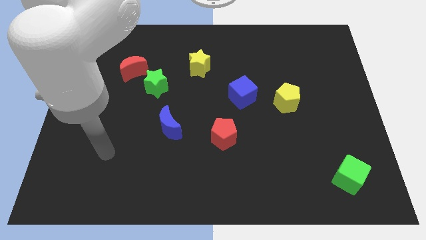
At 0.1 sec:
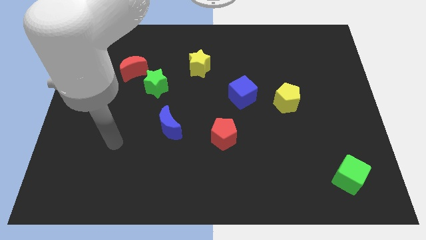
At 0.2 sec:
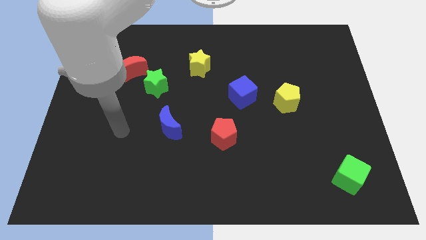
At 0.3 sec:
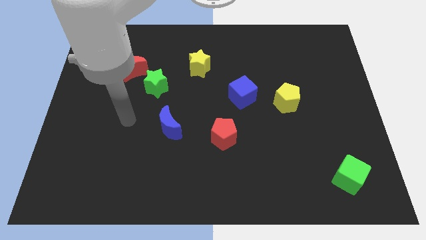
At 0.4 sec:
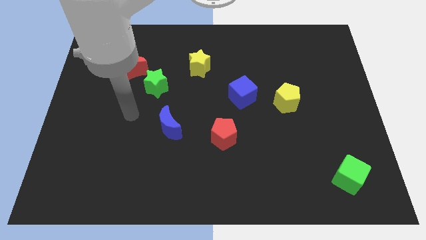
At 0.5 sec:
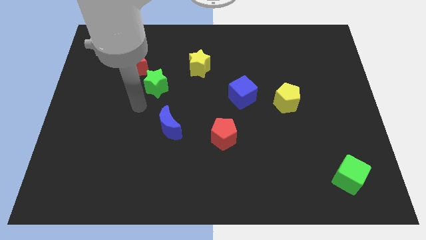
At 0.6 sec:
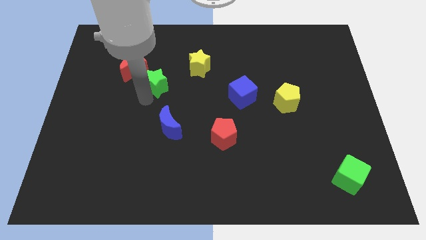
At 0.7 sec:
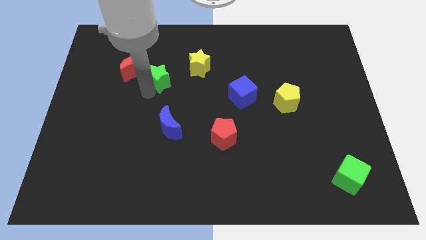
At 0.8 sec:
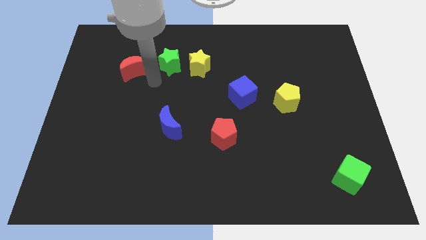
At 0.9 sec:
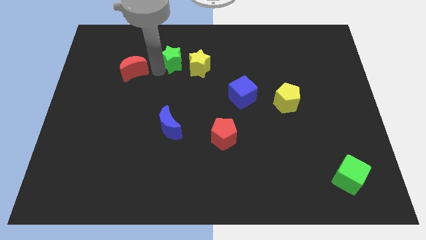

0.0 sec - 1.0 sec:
separate the red moon from the green star

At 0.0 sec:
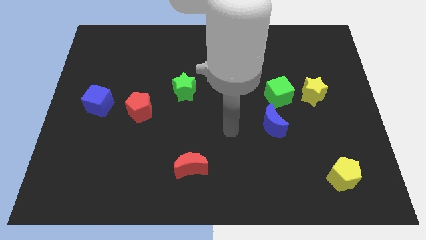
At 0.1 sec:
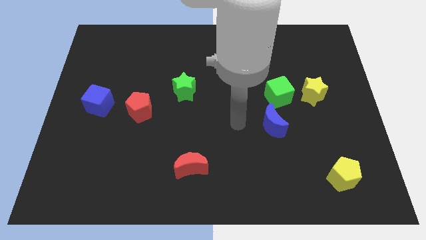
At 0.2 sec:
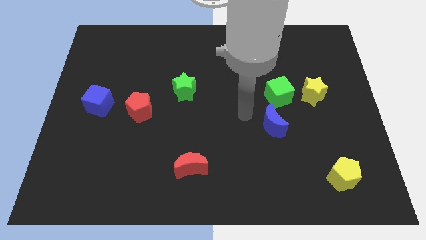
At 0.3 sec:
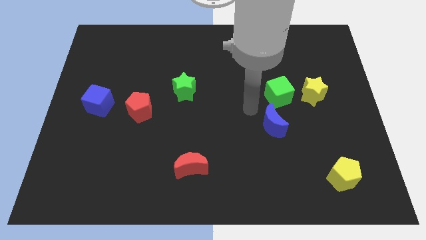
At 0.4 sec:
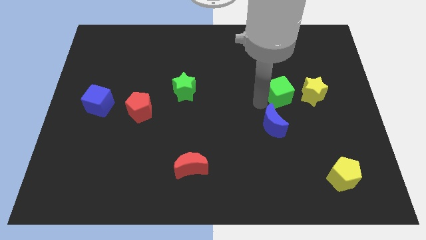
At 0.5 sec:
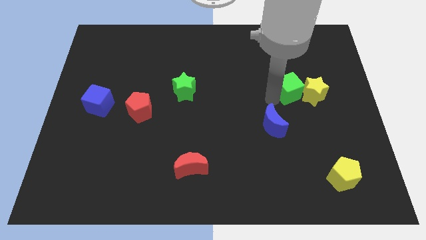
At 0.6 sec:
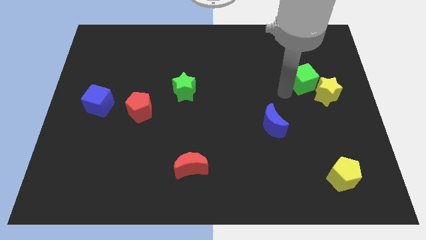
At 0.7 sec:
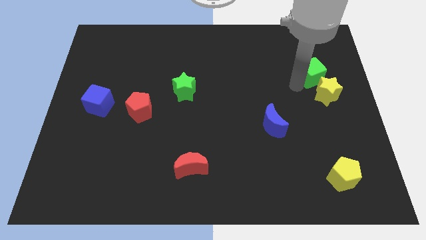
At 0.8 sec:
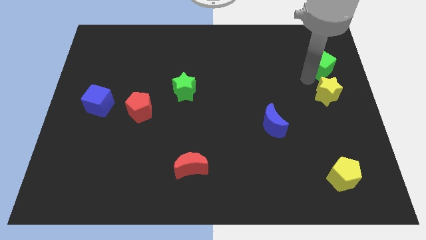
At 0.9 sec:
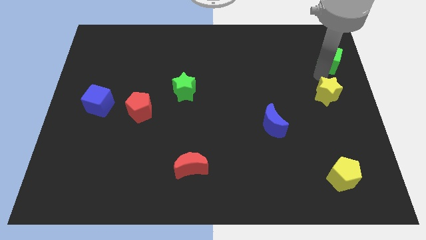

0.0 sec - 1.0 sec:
pull the yellow star apart from the green cube

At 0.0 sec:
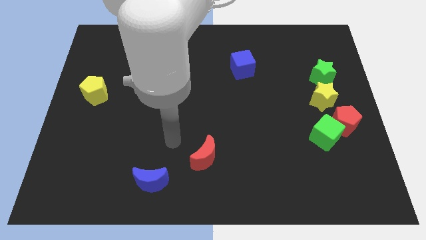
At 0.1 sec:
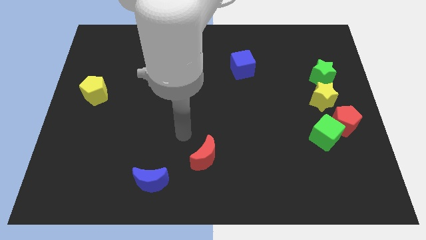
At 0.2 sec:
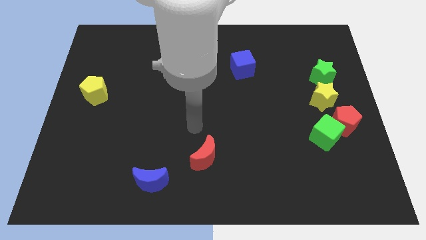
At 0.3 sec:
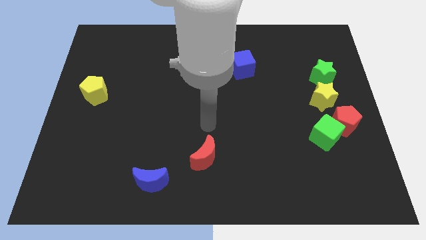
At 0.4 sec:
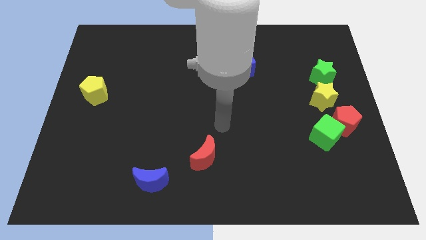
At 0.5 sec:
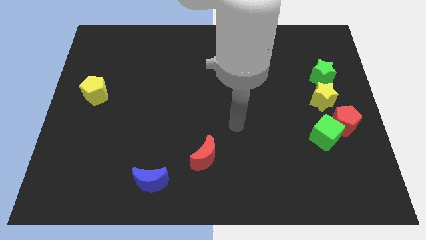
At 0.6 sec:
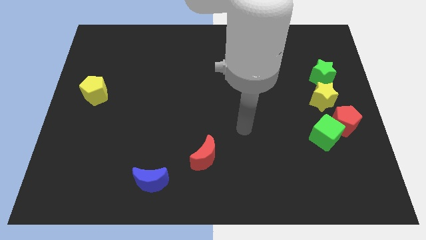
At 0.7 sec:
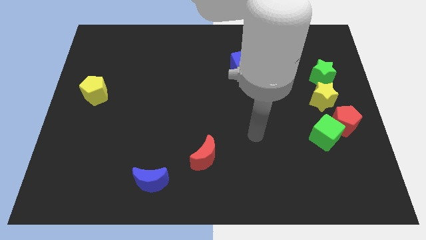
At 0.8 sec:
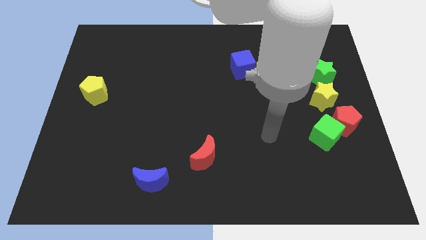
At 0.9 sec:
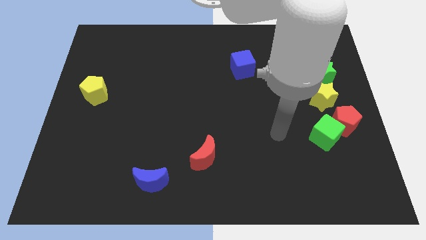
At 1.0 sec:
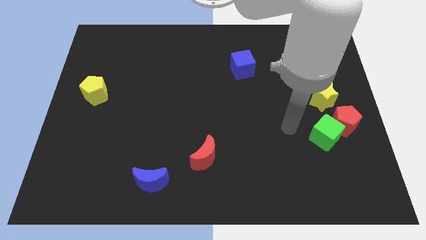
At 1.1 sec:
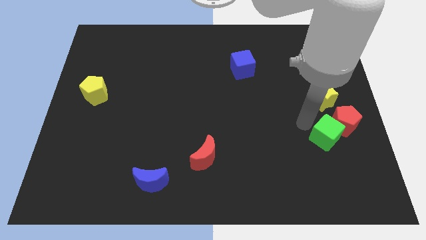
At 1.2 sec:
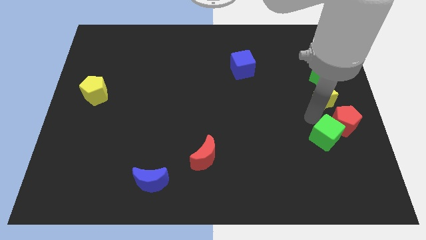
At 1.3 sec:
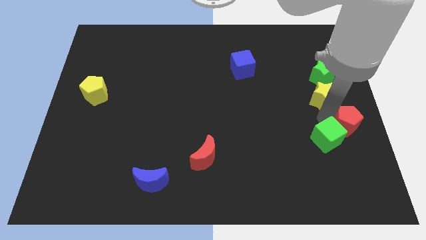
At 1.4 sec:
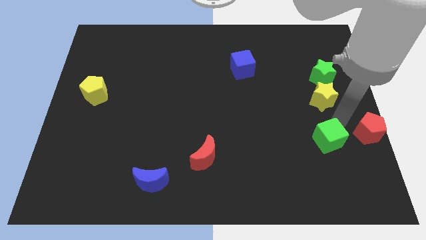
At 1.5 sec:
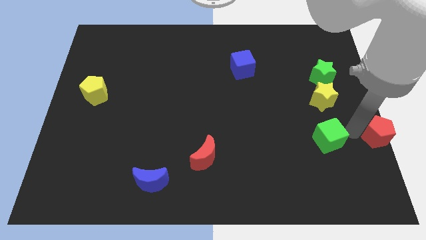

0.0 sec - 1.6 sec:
separate the green cube from the red pentagon

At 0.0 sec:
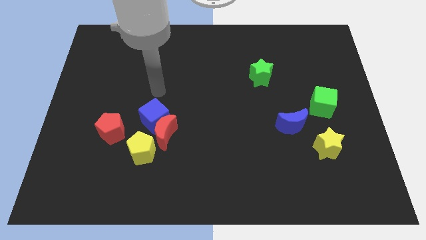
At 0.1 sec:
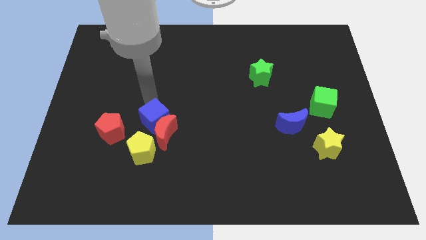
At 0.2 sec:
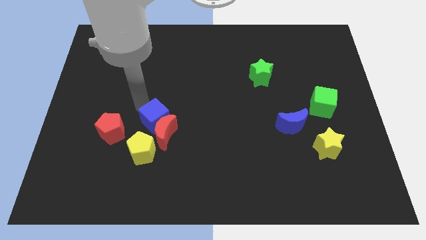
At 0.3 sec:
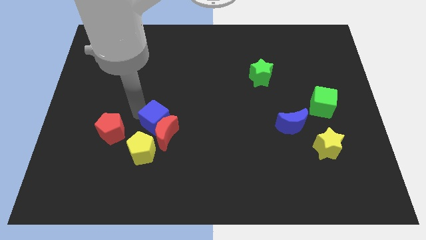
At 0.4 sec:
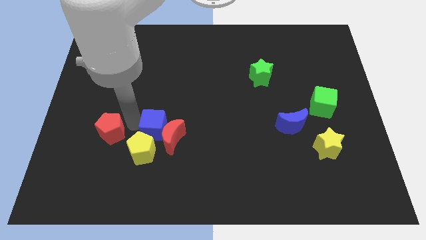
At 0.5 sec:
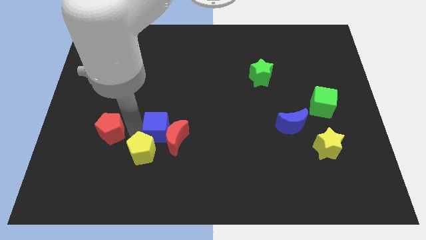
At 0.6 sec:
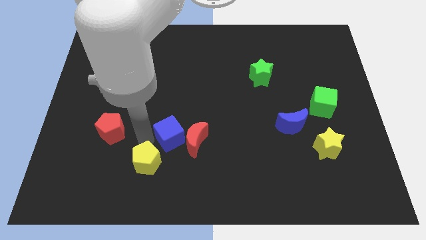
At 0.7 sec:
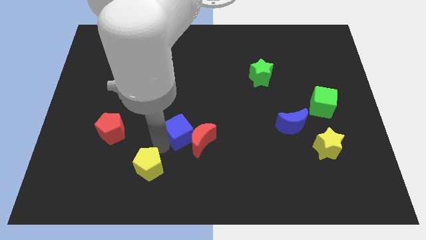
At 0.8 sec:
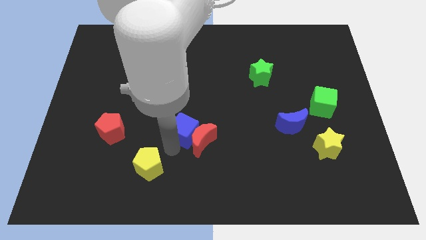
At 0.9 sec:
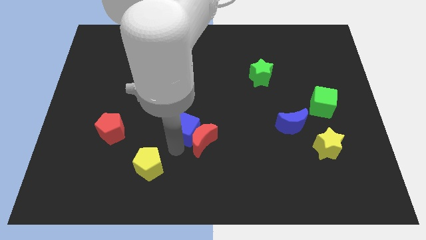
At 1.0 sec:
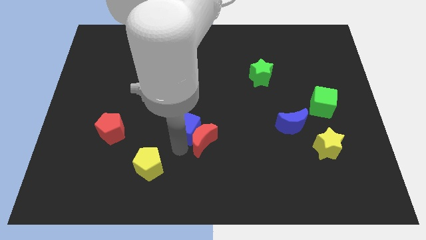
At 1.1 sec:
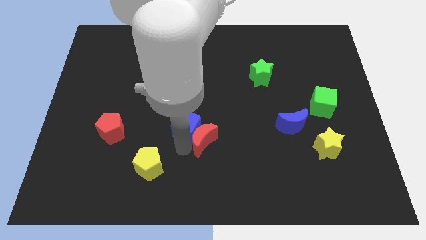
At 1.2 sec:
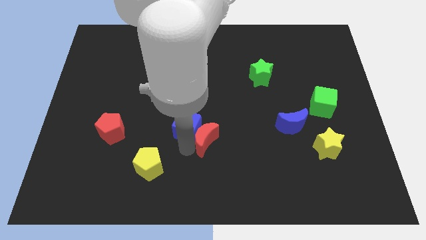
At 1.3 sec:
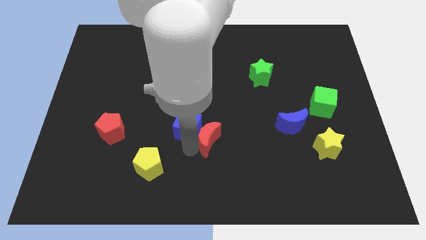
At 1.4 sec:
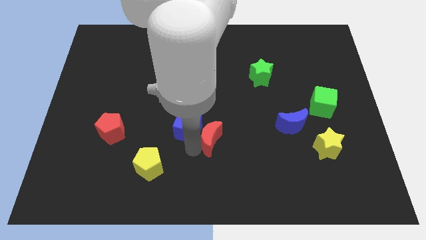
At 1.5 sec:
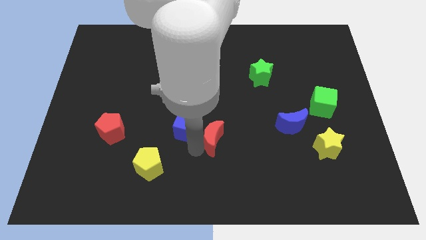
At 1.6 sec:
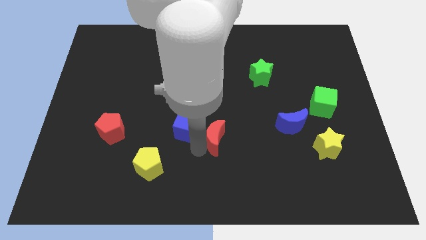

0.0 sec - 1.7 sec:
separate the red moon from the blue cube and yellow pentagon

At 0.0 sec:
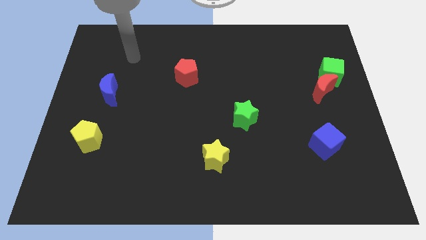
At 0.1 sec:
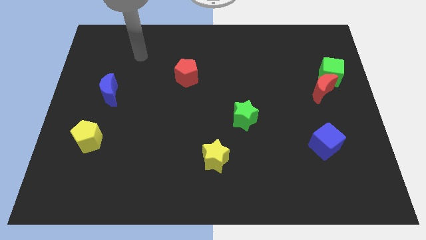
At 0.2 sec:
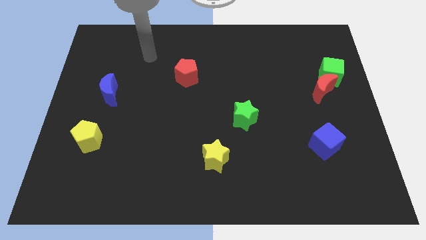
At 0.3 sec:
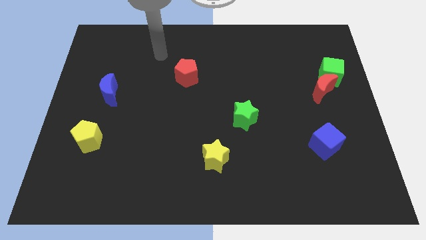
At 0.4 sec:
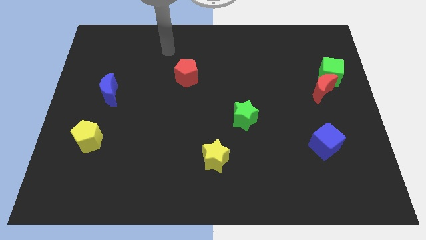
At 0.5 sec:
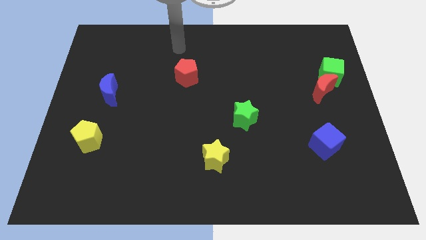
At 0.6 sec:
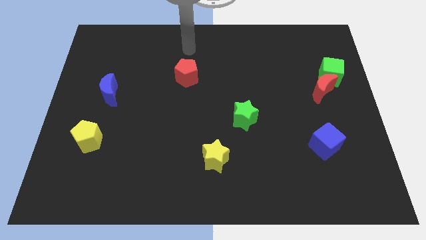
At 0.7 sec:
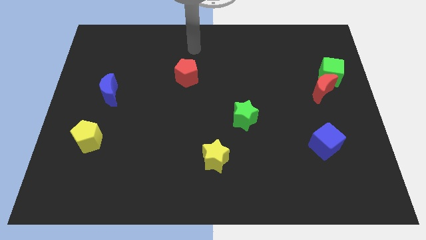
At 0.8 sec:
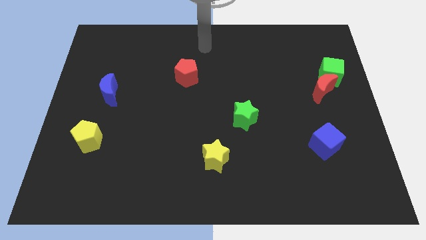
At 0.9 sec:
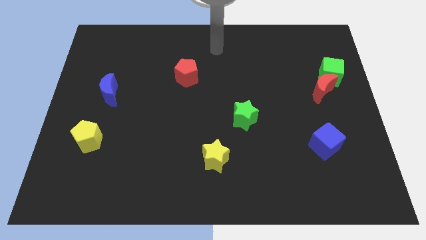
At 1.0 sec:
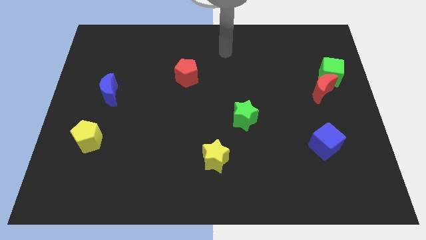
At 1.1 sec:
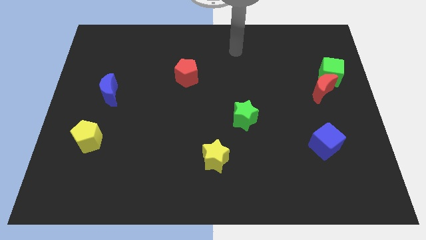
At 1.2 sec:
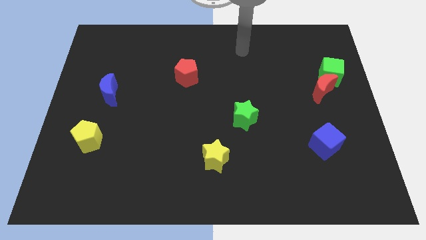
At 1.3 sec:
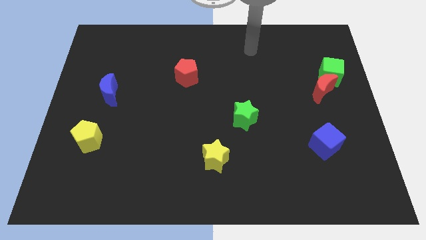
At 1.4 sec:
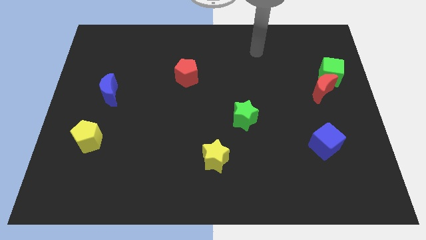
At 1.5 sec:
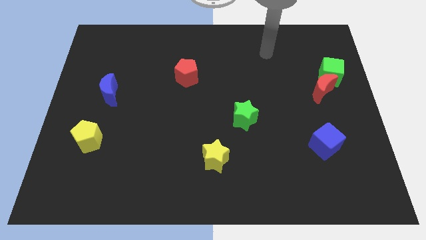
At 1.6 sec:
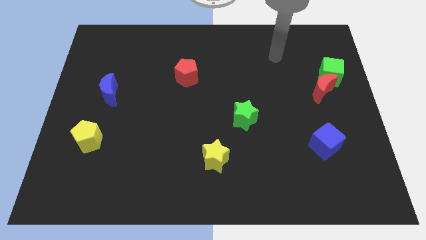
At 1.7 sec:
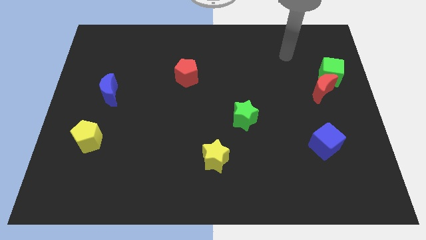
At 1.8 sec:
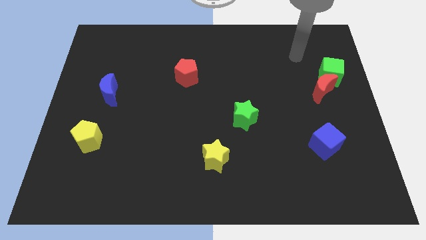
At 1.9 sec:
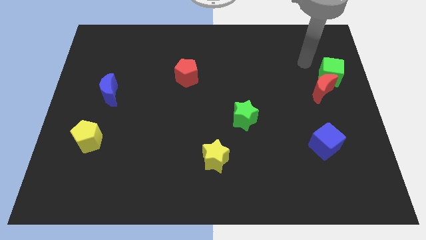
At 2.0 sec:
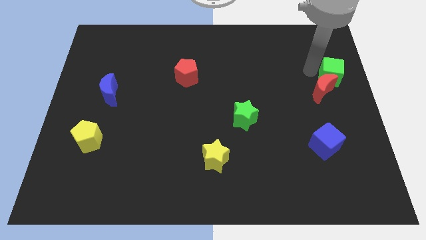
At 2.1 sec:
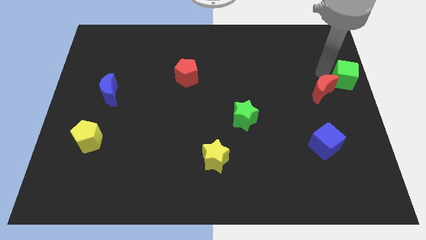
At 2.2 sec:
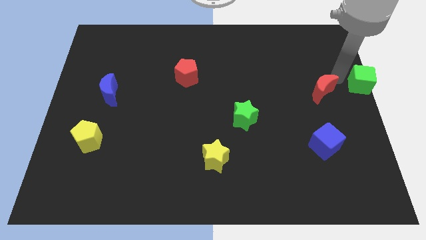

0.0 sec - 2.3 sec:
separate the red moon from the green cube

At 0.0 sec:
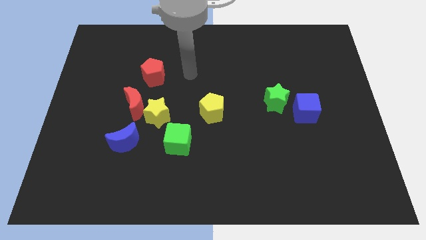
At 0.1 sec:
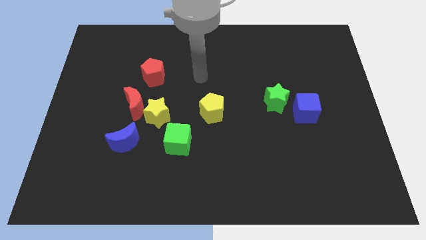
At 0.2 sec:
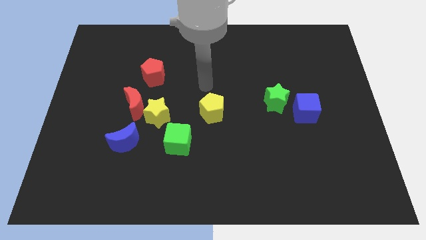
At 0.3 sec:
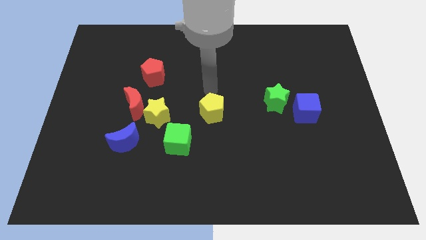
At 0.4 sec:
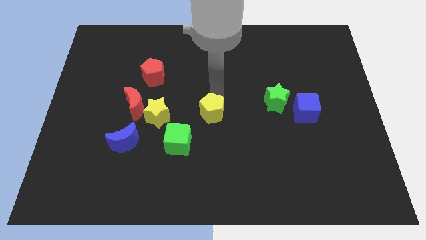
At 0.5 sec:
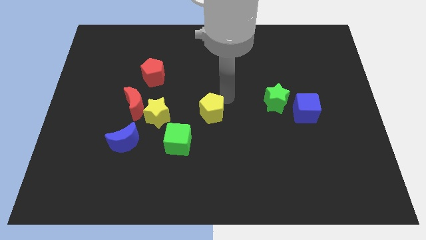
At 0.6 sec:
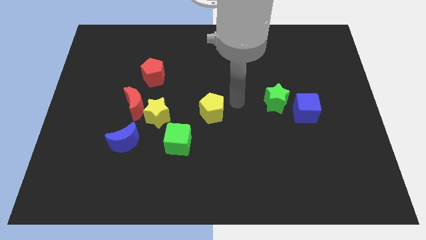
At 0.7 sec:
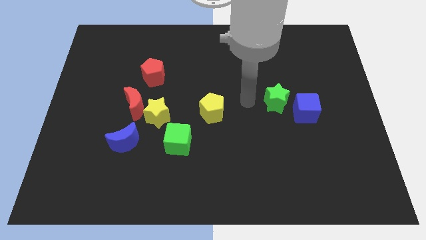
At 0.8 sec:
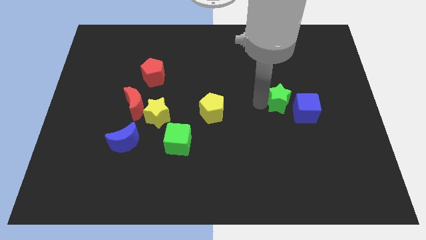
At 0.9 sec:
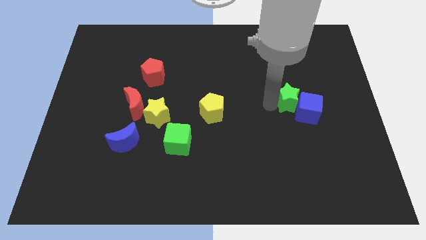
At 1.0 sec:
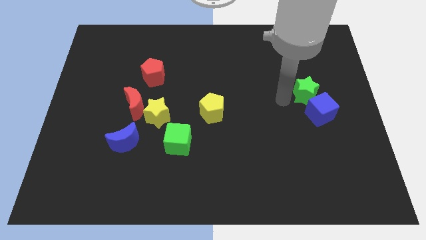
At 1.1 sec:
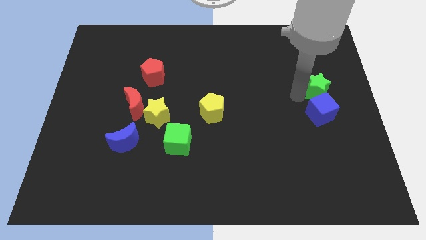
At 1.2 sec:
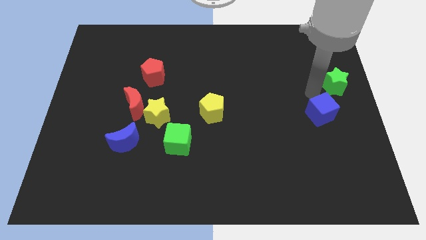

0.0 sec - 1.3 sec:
separate the blue cube from the green star

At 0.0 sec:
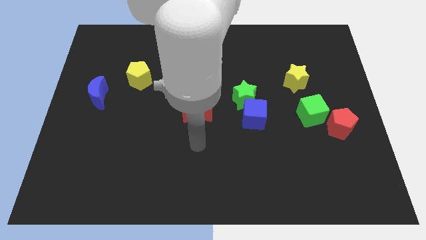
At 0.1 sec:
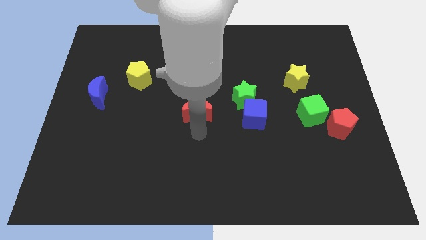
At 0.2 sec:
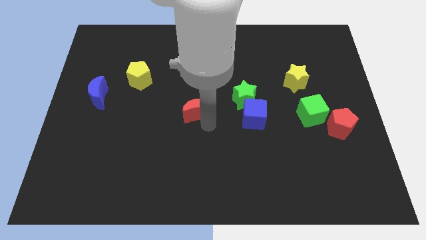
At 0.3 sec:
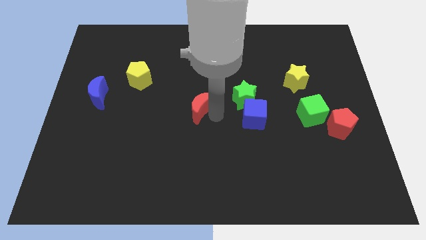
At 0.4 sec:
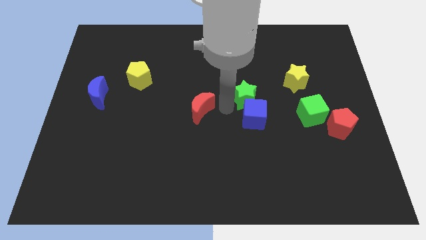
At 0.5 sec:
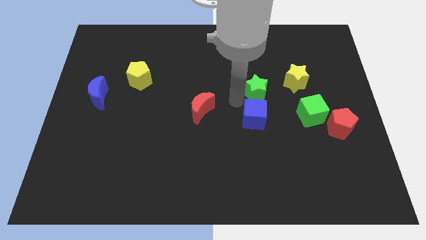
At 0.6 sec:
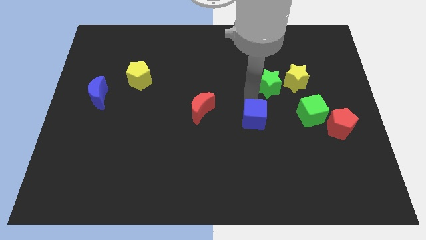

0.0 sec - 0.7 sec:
pull the blue cube apart from the green star
